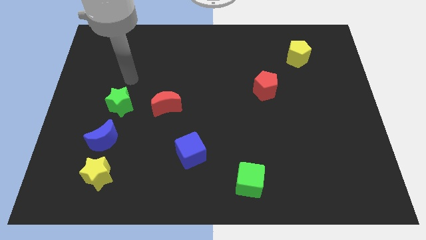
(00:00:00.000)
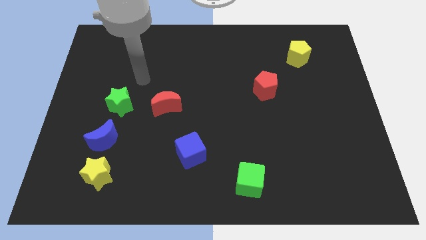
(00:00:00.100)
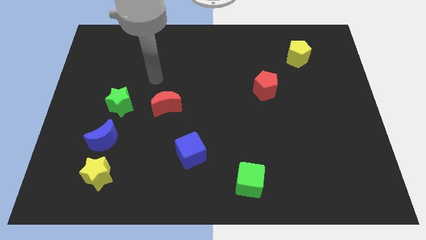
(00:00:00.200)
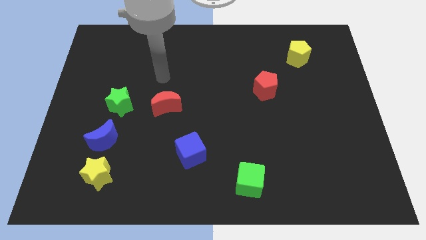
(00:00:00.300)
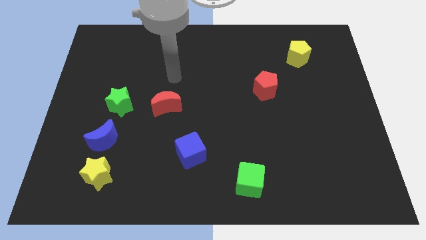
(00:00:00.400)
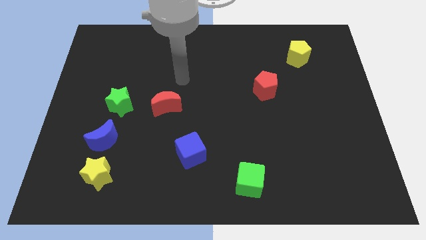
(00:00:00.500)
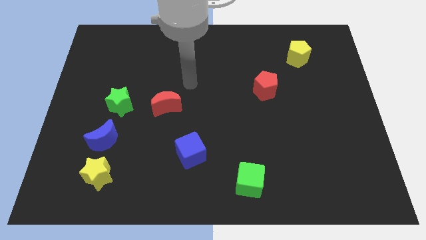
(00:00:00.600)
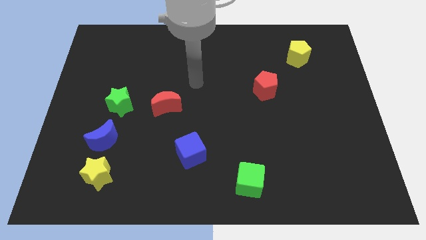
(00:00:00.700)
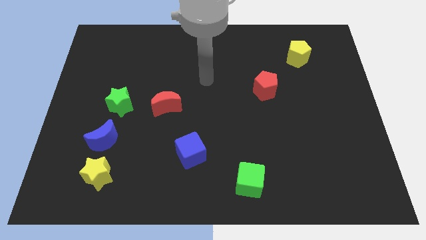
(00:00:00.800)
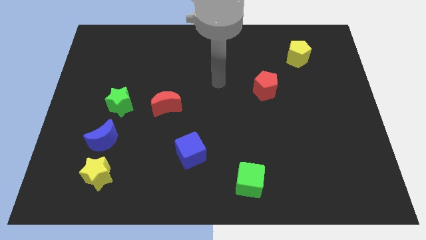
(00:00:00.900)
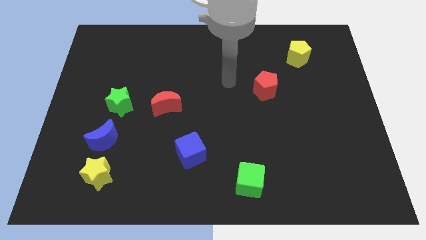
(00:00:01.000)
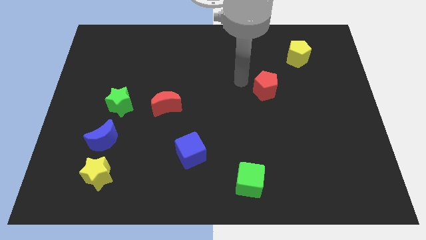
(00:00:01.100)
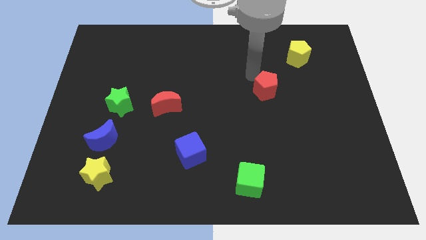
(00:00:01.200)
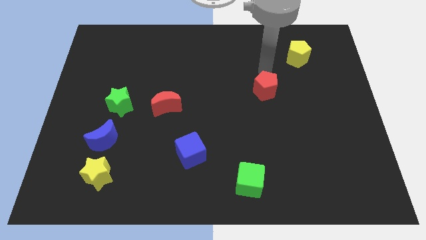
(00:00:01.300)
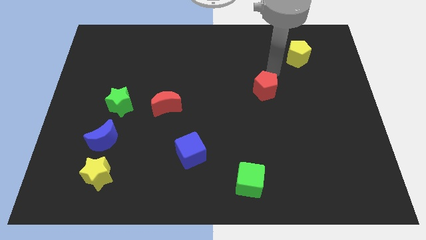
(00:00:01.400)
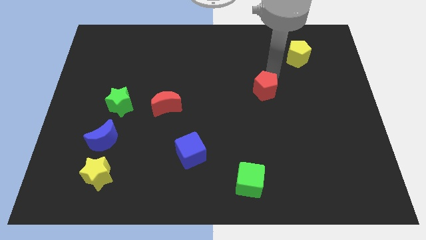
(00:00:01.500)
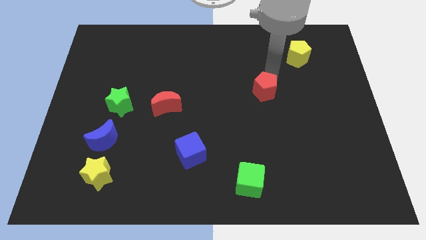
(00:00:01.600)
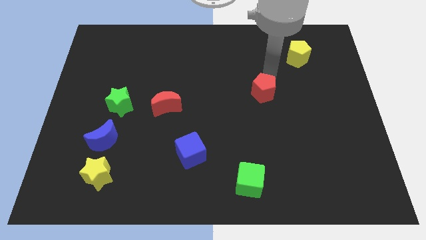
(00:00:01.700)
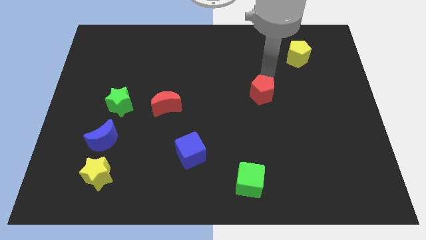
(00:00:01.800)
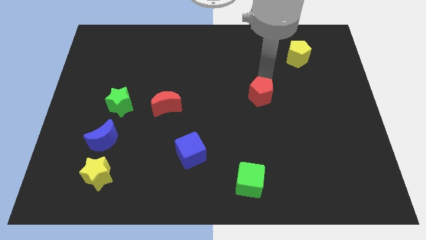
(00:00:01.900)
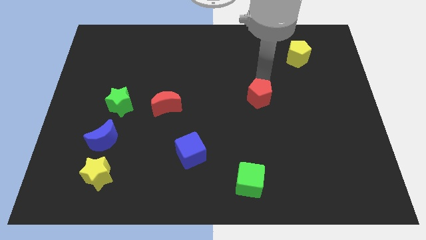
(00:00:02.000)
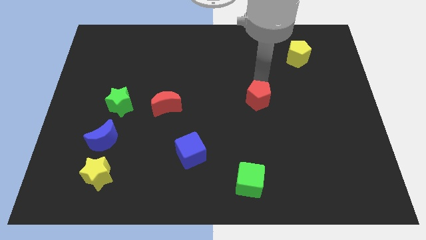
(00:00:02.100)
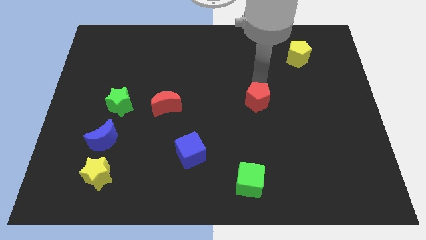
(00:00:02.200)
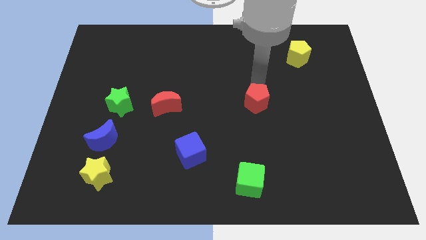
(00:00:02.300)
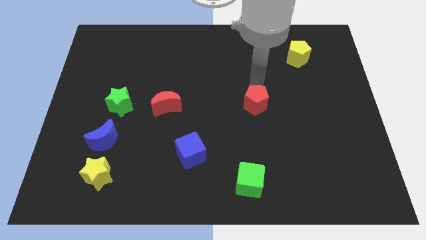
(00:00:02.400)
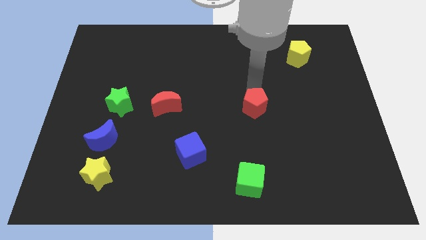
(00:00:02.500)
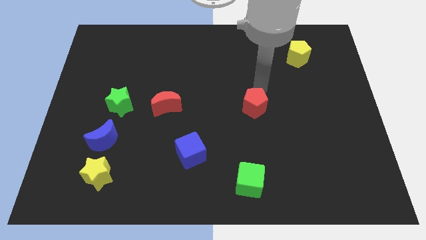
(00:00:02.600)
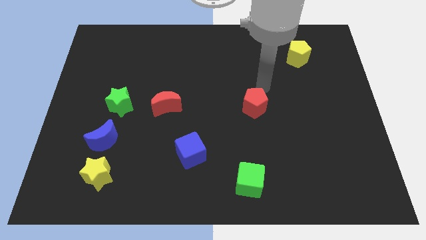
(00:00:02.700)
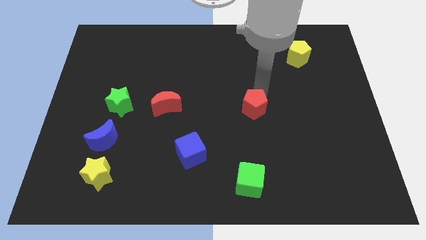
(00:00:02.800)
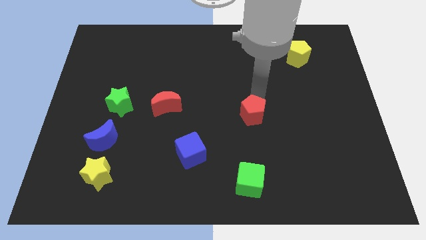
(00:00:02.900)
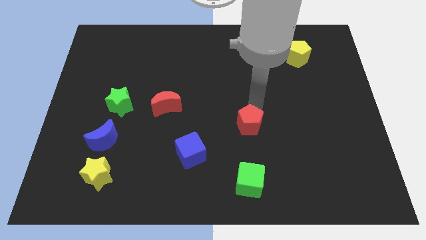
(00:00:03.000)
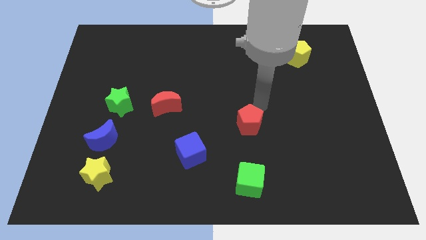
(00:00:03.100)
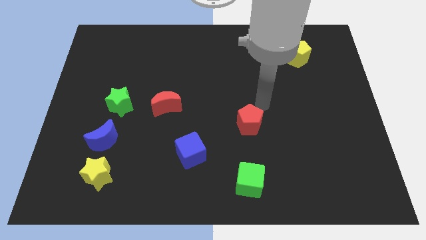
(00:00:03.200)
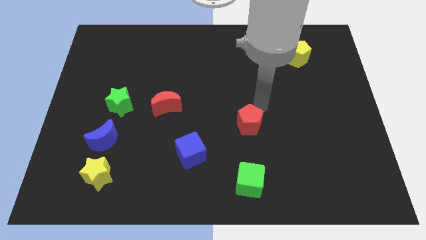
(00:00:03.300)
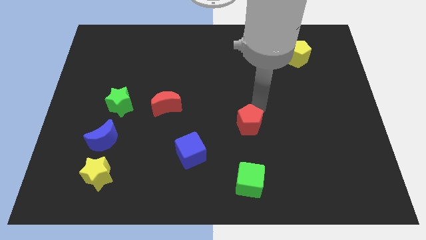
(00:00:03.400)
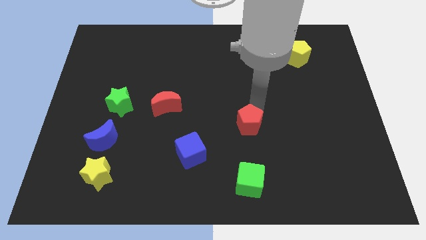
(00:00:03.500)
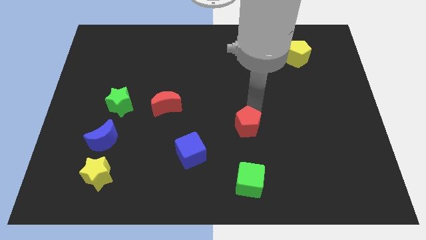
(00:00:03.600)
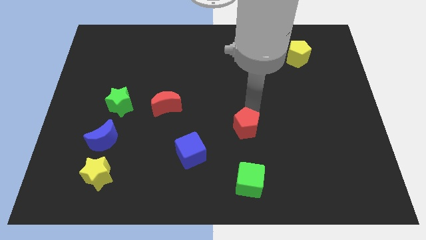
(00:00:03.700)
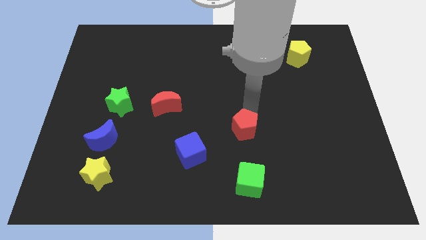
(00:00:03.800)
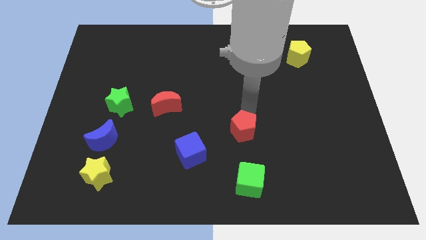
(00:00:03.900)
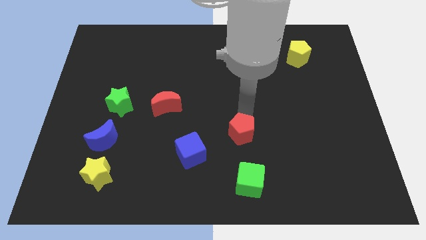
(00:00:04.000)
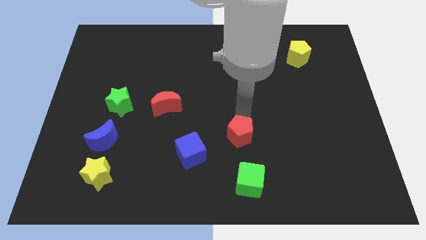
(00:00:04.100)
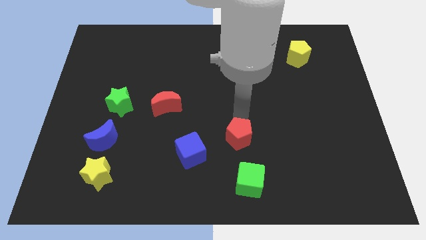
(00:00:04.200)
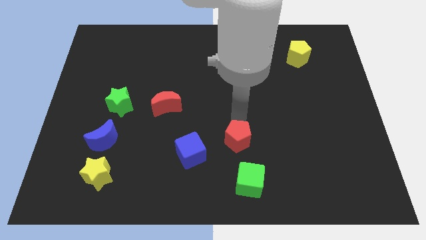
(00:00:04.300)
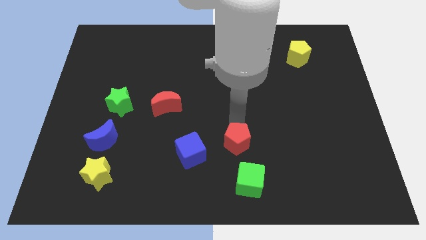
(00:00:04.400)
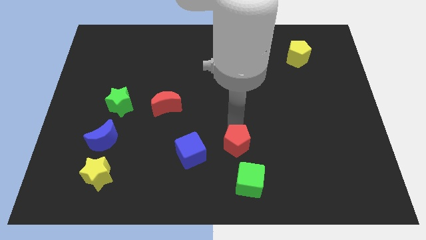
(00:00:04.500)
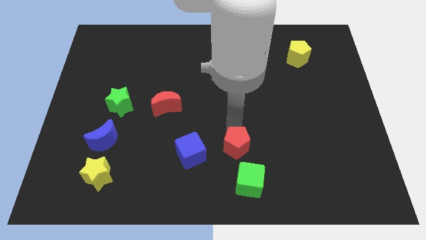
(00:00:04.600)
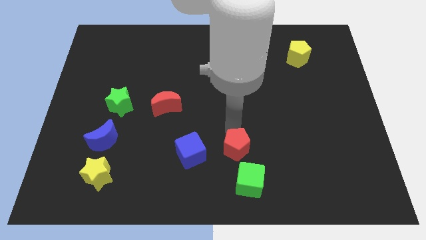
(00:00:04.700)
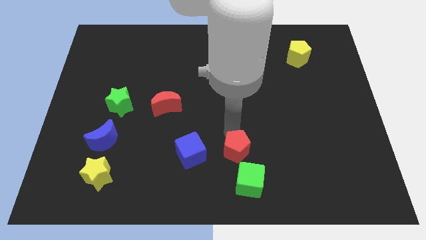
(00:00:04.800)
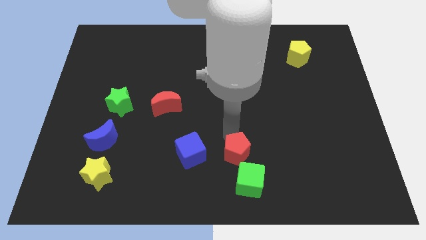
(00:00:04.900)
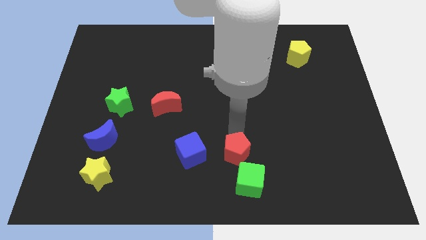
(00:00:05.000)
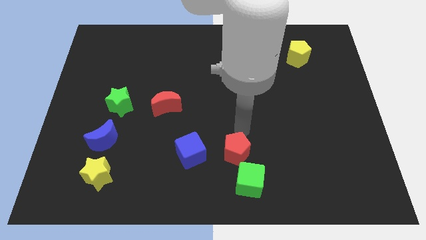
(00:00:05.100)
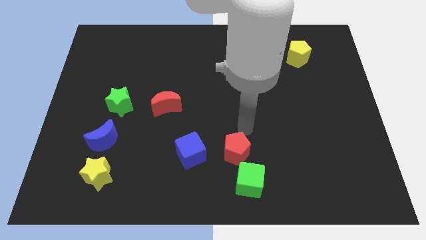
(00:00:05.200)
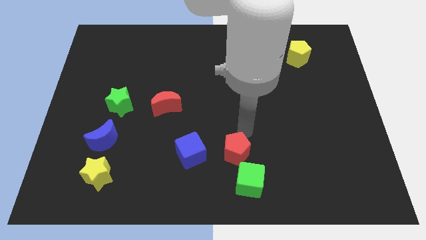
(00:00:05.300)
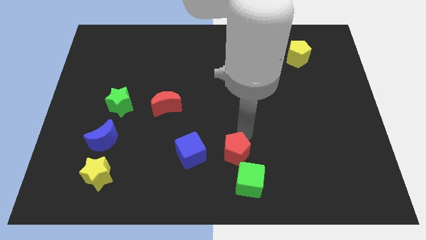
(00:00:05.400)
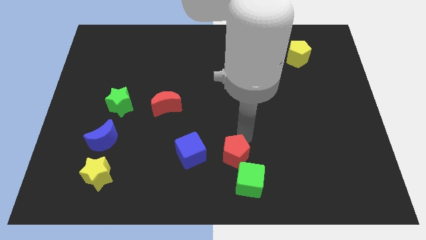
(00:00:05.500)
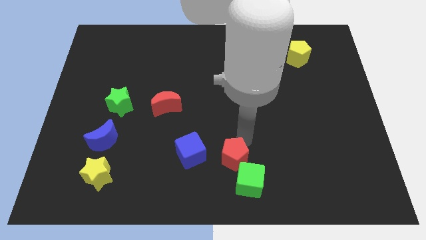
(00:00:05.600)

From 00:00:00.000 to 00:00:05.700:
push the red pentagon to the bottom
